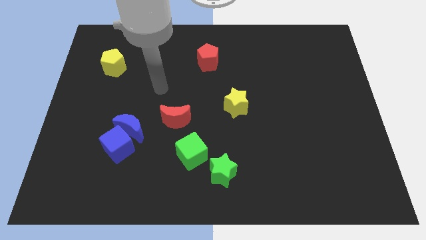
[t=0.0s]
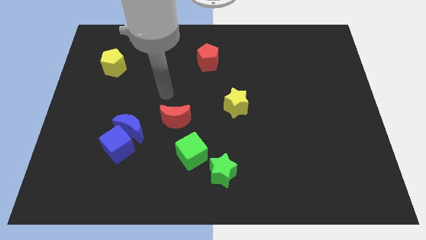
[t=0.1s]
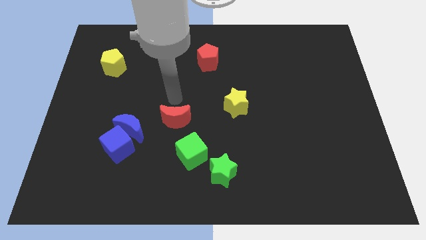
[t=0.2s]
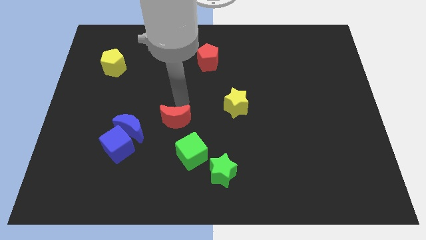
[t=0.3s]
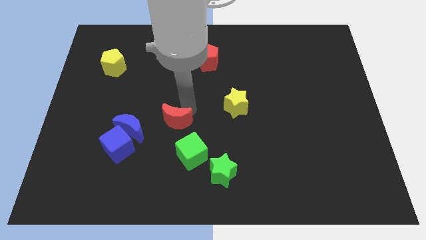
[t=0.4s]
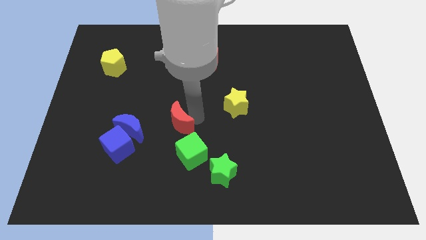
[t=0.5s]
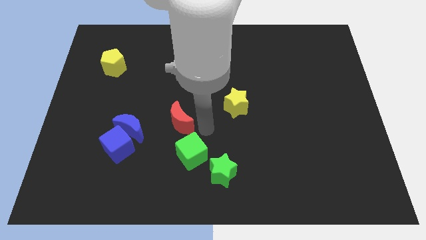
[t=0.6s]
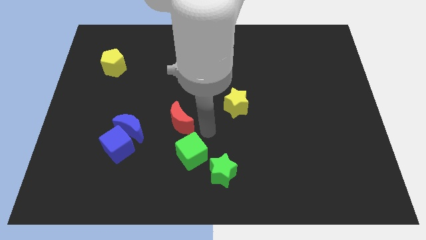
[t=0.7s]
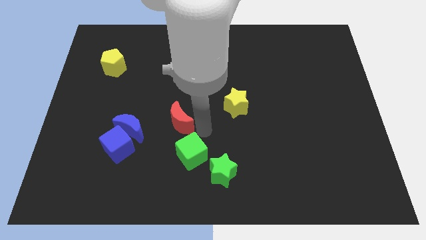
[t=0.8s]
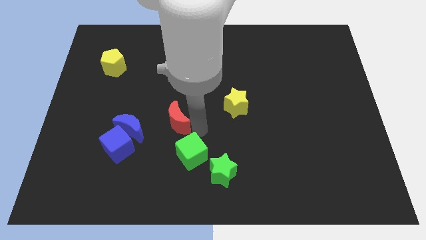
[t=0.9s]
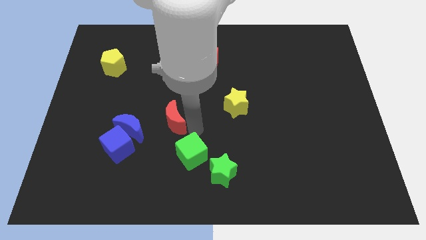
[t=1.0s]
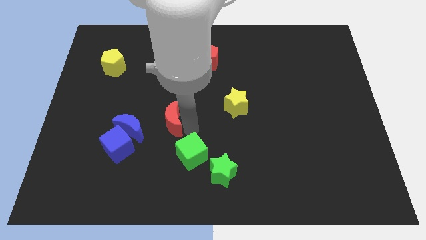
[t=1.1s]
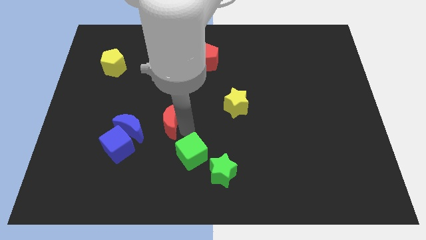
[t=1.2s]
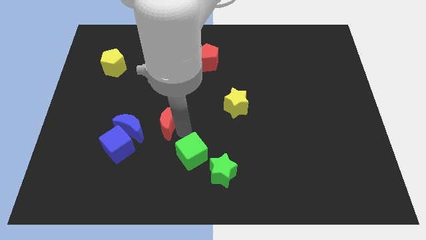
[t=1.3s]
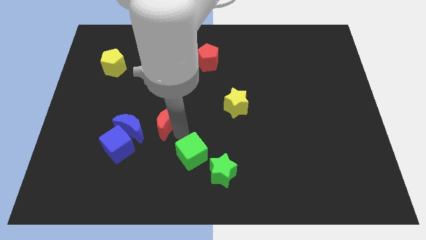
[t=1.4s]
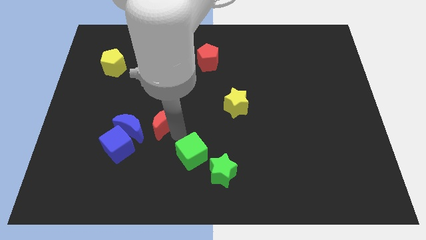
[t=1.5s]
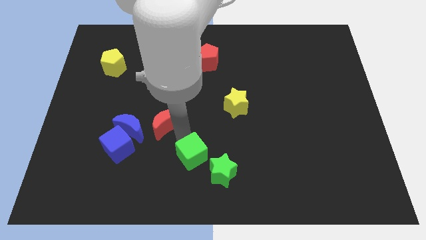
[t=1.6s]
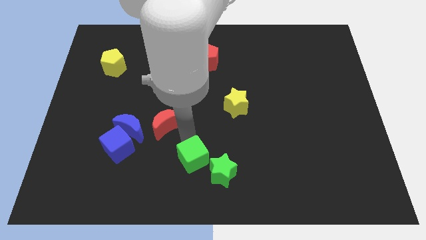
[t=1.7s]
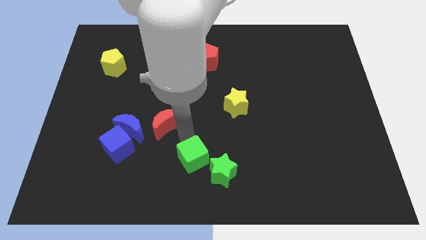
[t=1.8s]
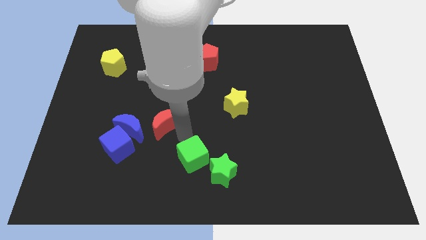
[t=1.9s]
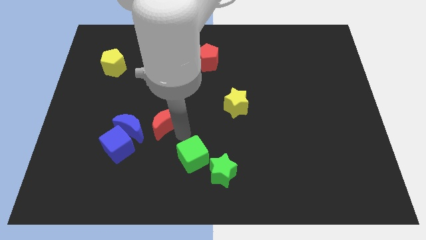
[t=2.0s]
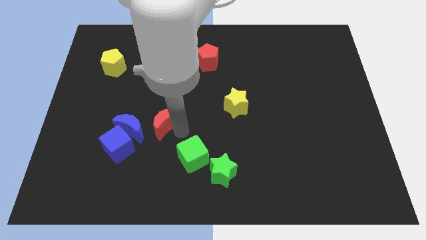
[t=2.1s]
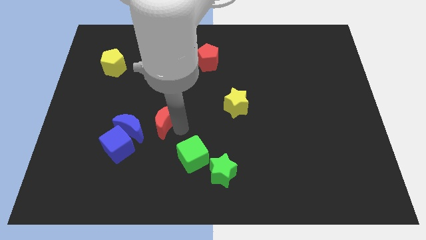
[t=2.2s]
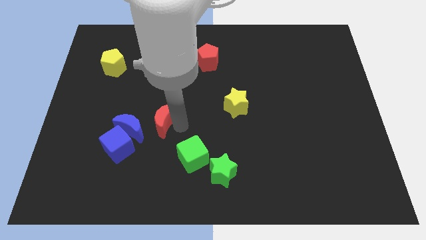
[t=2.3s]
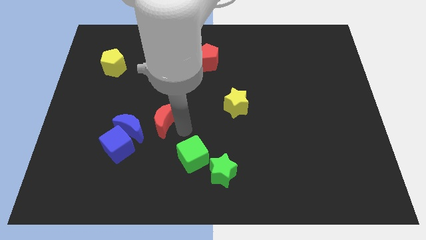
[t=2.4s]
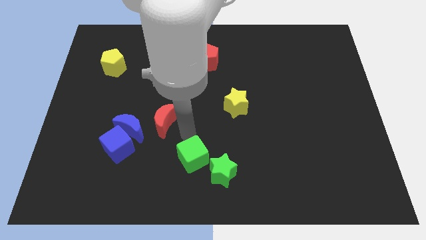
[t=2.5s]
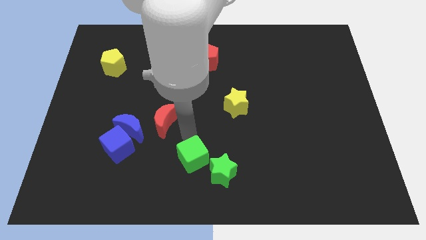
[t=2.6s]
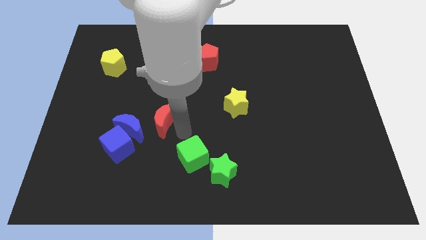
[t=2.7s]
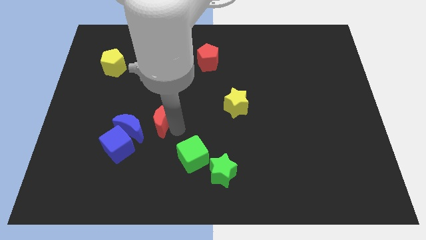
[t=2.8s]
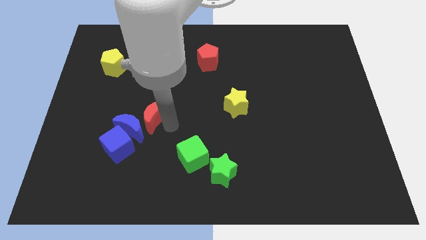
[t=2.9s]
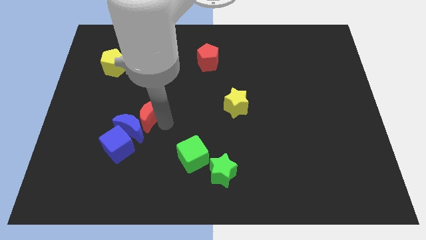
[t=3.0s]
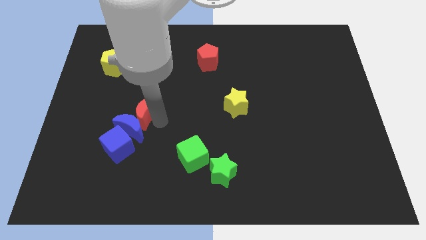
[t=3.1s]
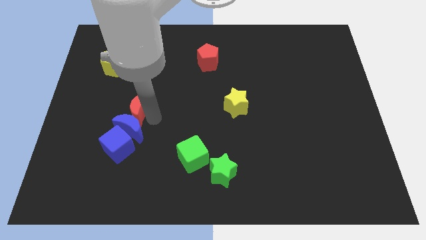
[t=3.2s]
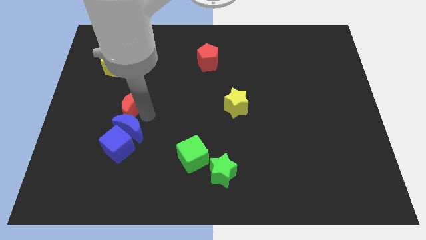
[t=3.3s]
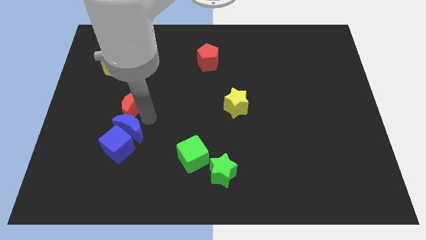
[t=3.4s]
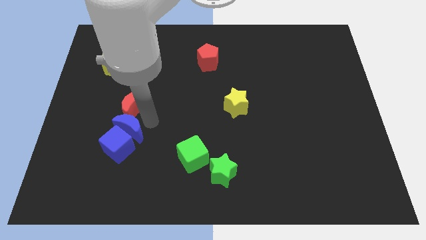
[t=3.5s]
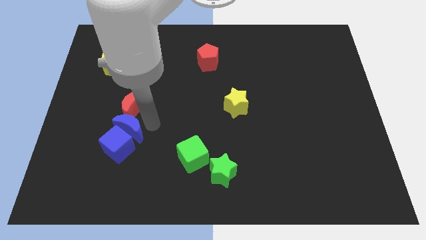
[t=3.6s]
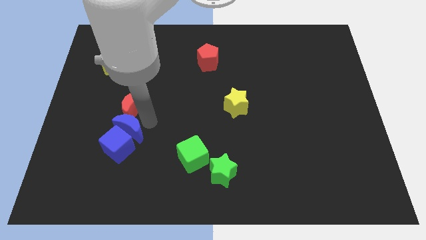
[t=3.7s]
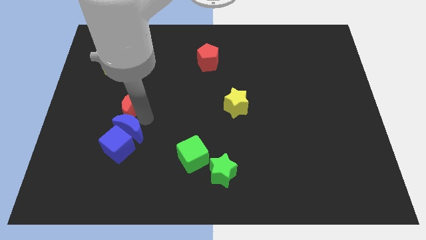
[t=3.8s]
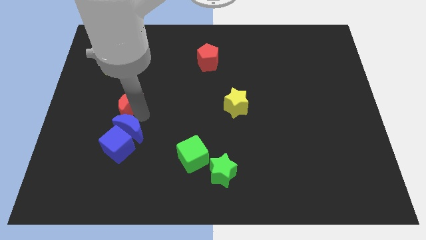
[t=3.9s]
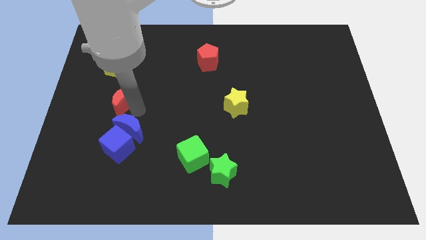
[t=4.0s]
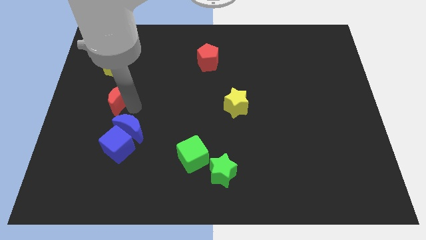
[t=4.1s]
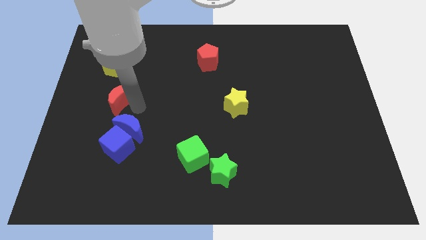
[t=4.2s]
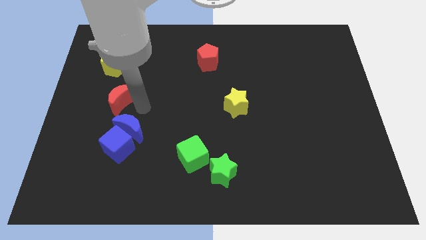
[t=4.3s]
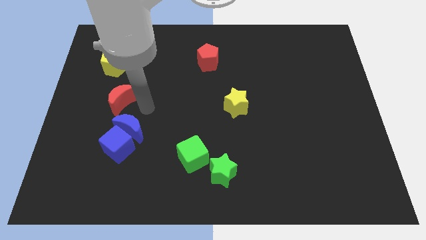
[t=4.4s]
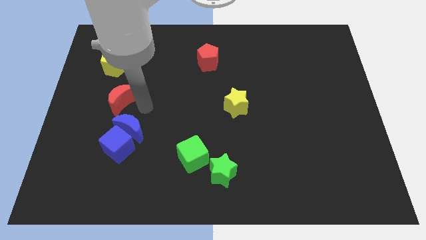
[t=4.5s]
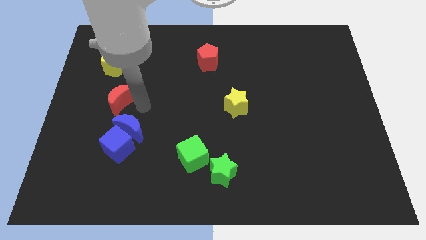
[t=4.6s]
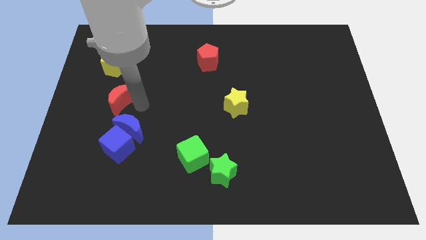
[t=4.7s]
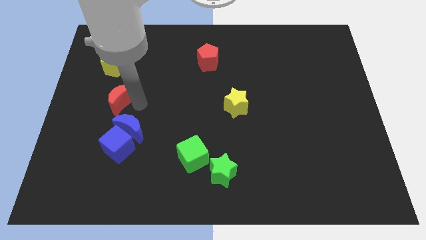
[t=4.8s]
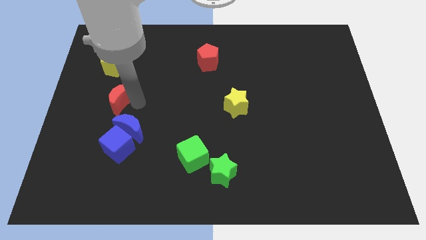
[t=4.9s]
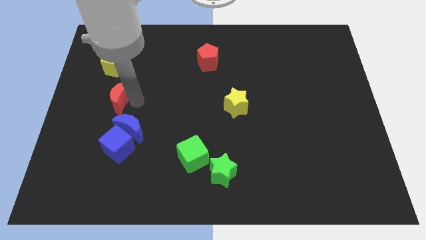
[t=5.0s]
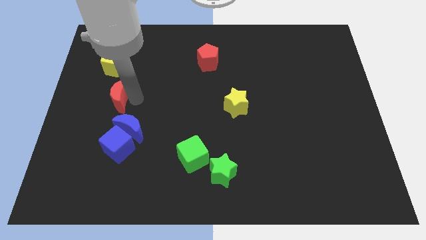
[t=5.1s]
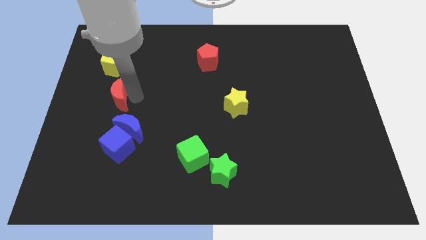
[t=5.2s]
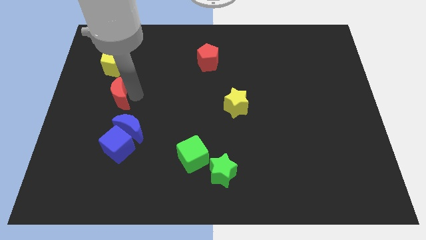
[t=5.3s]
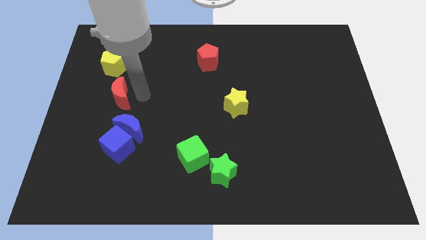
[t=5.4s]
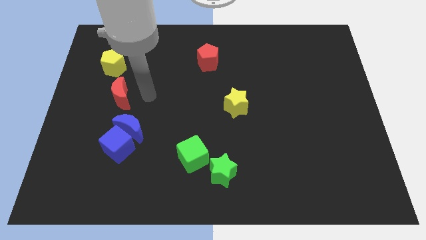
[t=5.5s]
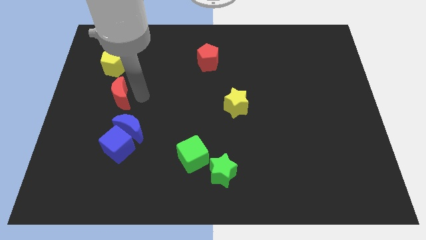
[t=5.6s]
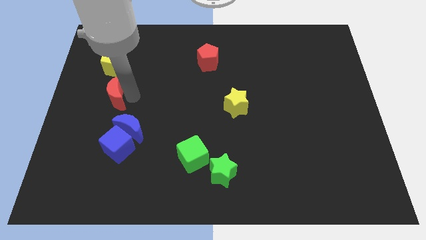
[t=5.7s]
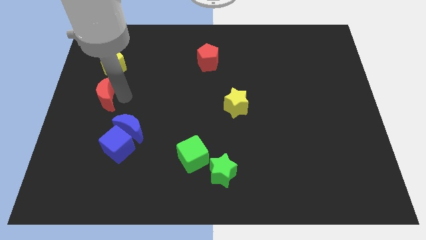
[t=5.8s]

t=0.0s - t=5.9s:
move the red moon to the center left

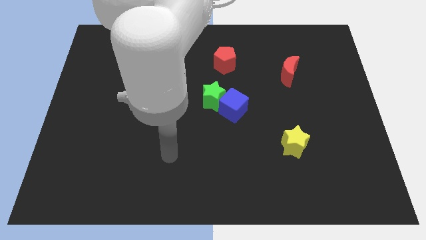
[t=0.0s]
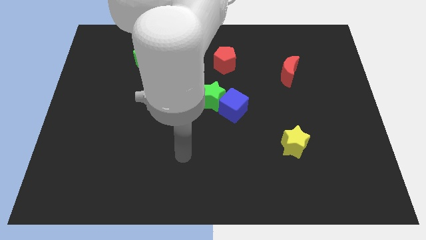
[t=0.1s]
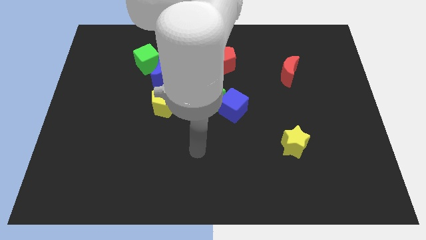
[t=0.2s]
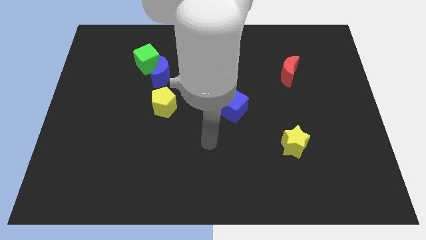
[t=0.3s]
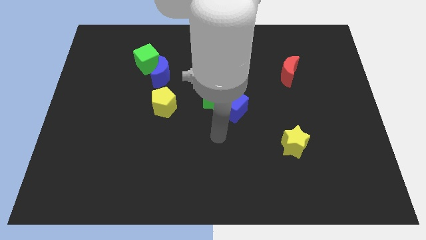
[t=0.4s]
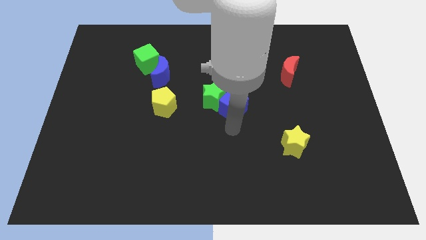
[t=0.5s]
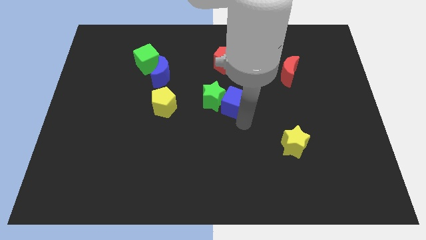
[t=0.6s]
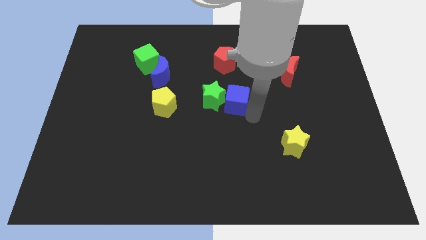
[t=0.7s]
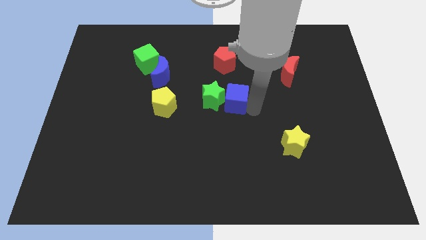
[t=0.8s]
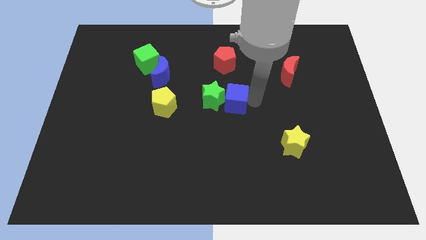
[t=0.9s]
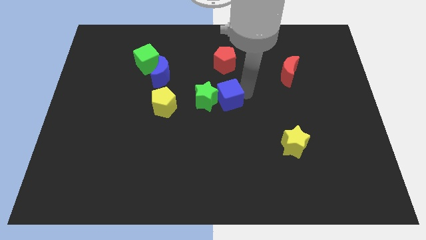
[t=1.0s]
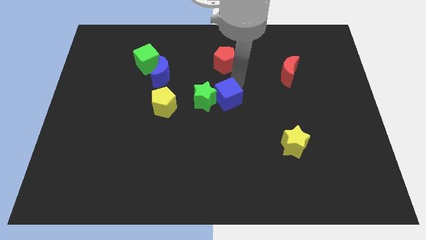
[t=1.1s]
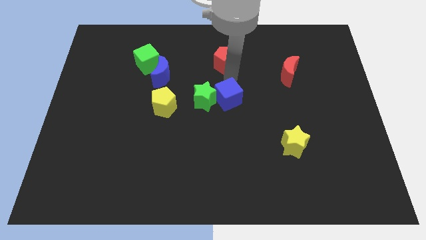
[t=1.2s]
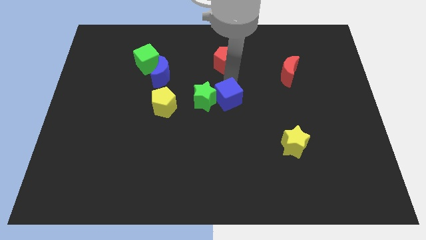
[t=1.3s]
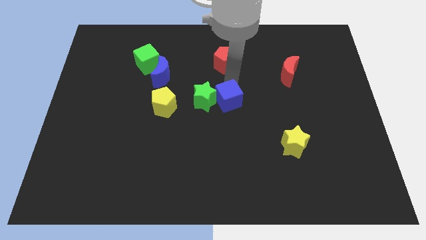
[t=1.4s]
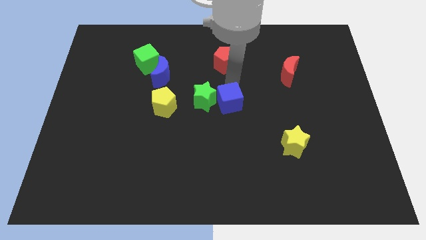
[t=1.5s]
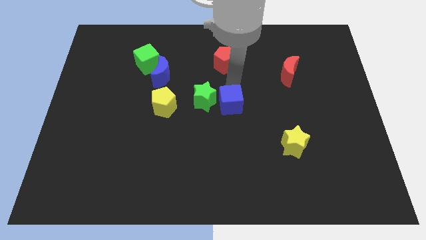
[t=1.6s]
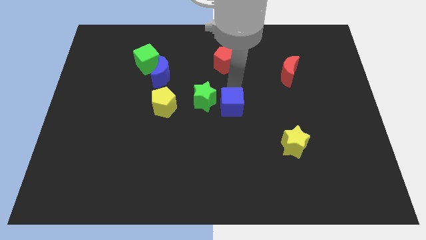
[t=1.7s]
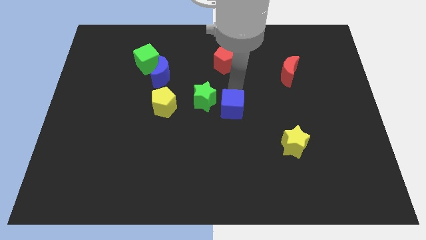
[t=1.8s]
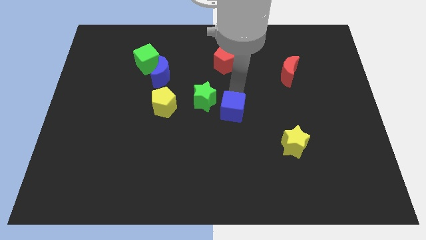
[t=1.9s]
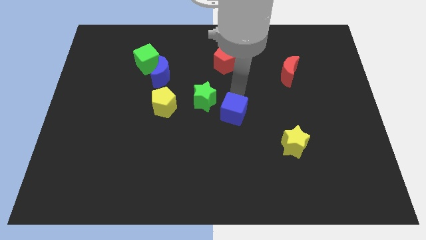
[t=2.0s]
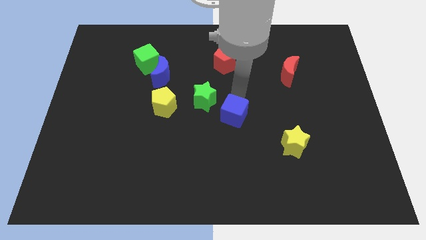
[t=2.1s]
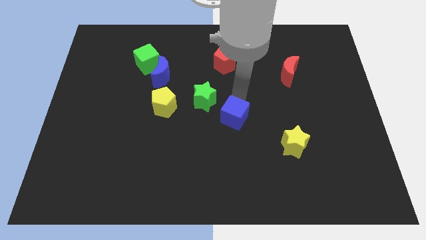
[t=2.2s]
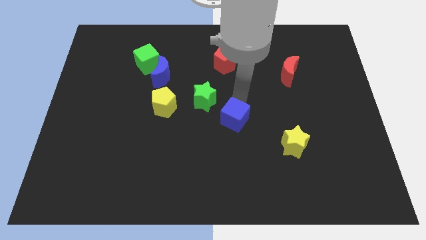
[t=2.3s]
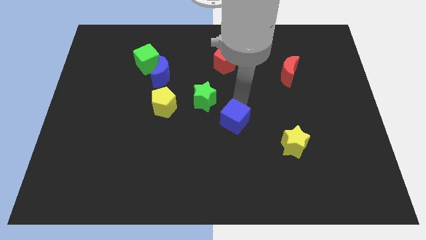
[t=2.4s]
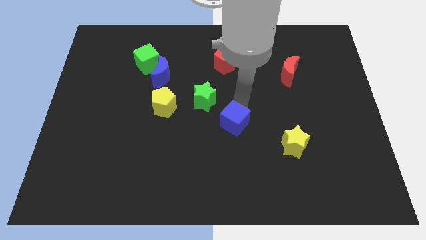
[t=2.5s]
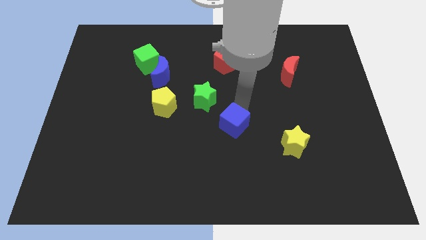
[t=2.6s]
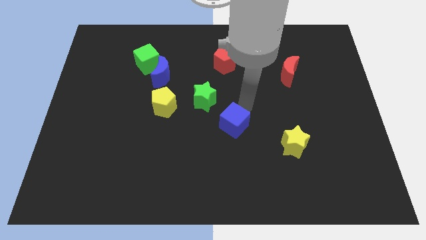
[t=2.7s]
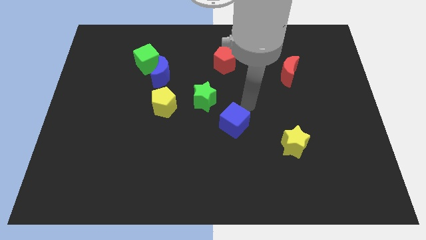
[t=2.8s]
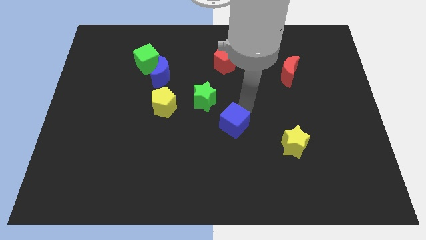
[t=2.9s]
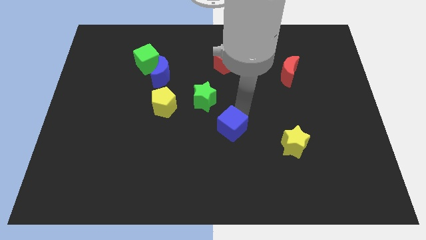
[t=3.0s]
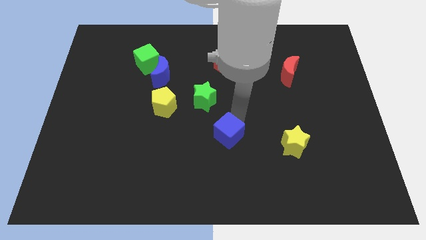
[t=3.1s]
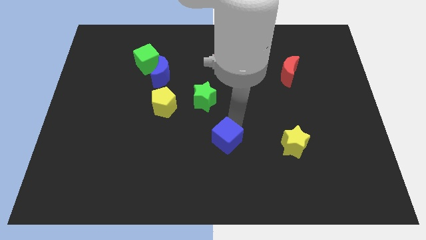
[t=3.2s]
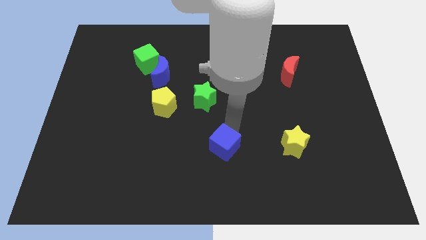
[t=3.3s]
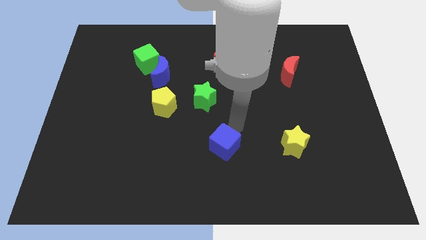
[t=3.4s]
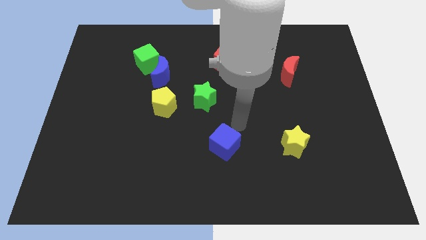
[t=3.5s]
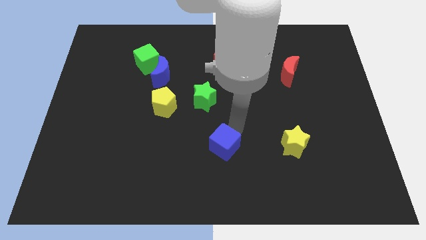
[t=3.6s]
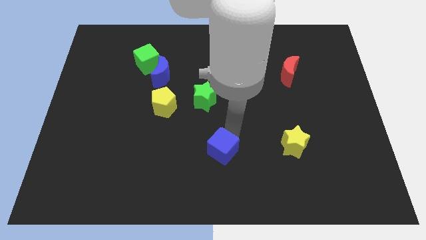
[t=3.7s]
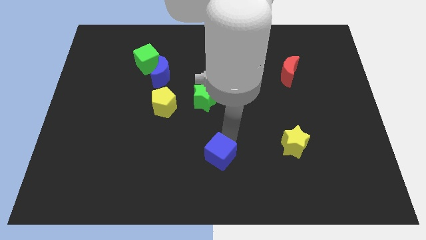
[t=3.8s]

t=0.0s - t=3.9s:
slide the blue cube to the bottom
